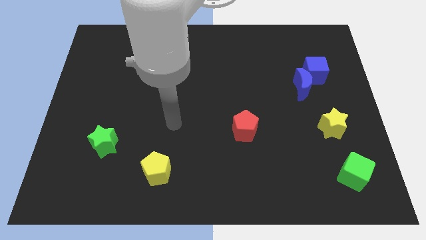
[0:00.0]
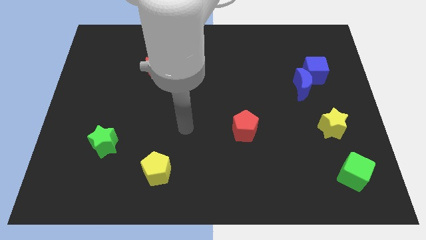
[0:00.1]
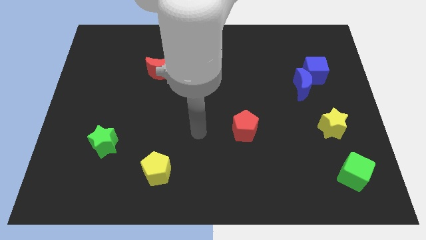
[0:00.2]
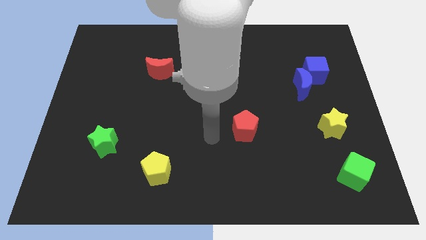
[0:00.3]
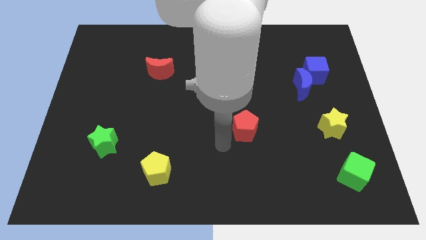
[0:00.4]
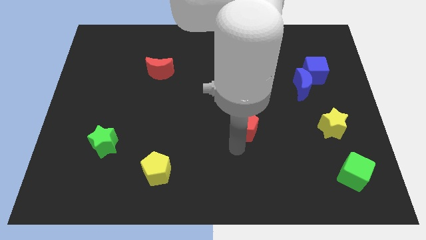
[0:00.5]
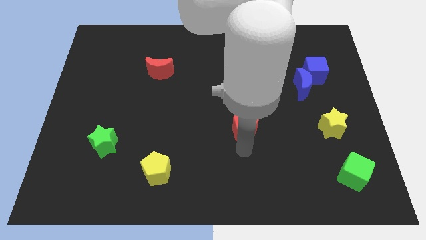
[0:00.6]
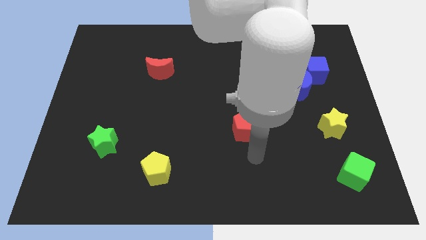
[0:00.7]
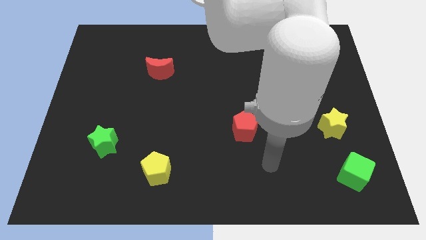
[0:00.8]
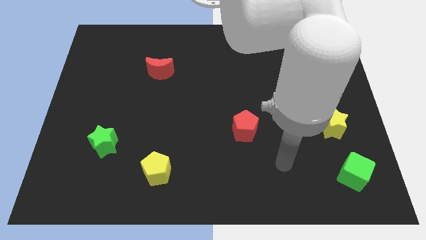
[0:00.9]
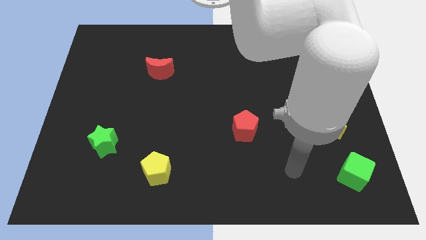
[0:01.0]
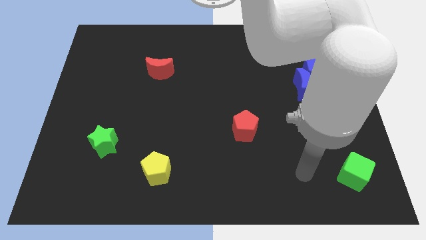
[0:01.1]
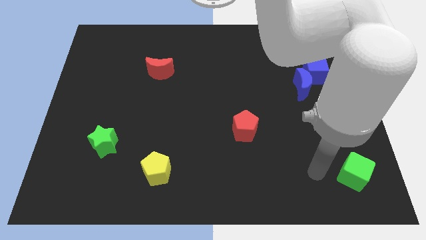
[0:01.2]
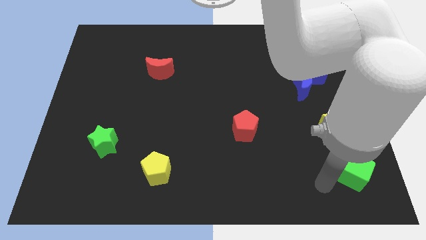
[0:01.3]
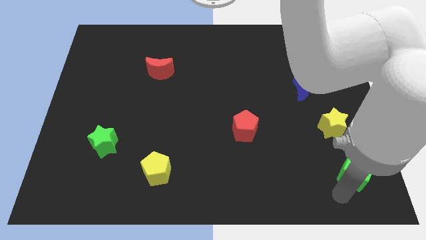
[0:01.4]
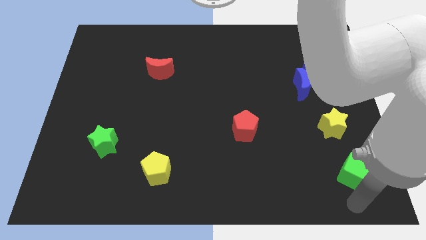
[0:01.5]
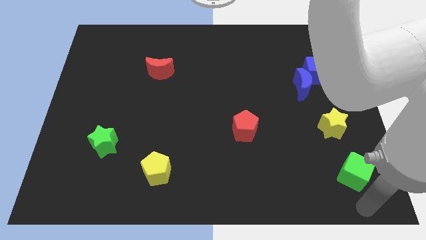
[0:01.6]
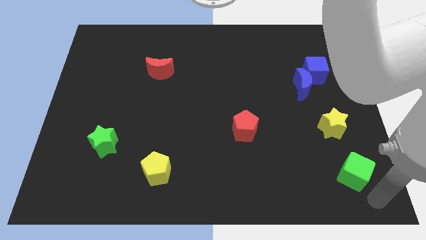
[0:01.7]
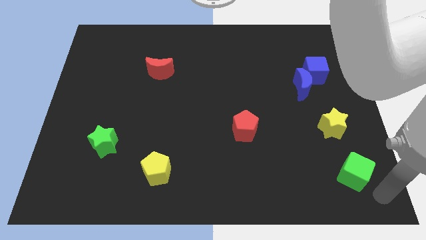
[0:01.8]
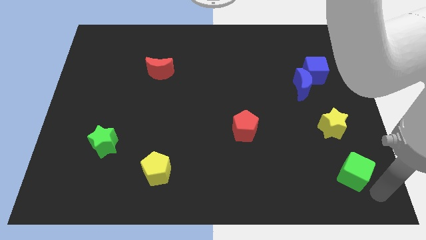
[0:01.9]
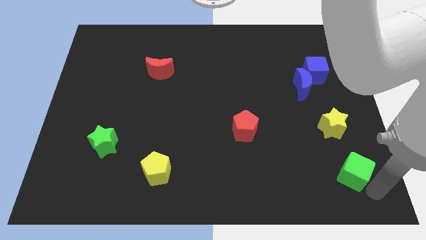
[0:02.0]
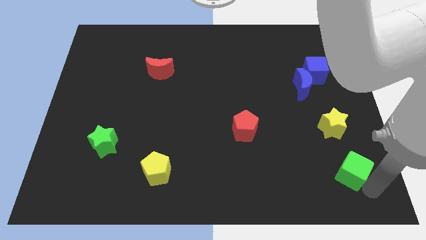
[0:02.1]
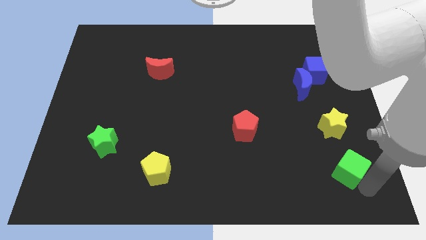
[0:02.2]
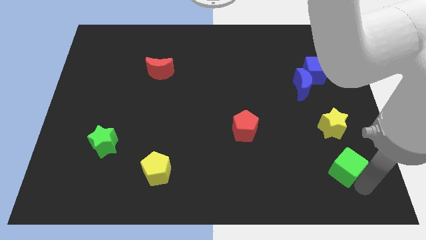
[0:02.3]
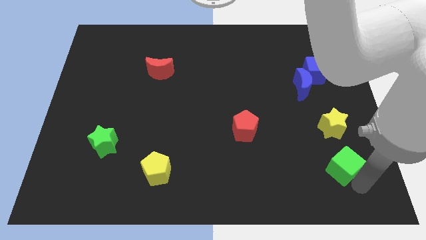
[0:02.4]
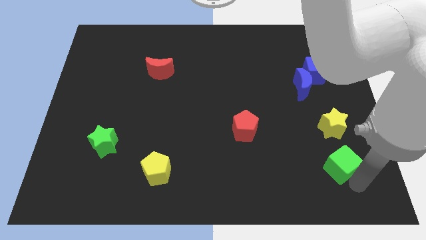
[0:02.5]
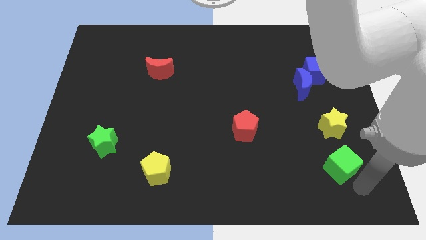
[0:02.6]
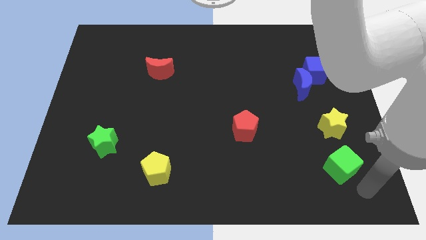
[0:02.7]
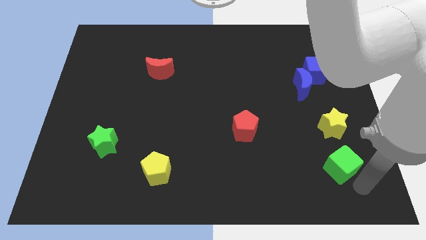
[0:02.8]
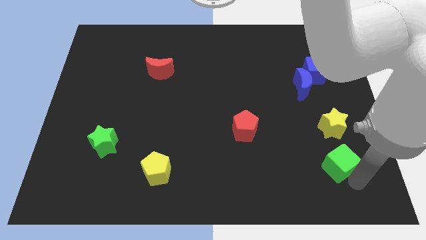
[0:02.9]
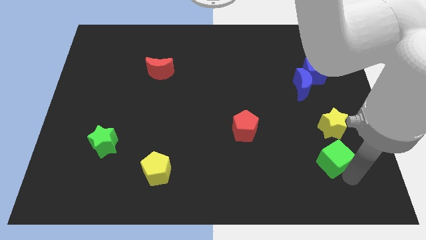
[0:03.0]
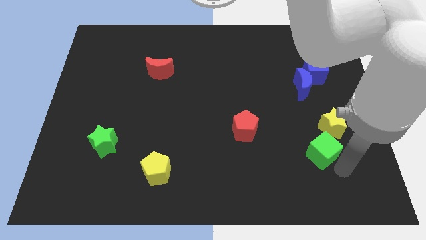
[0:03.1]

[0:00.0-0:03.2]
slide the green cube upwards and to the left a little bit

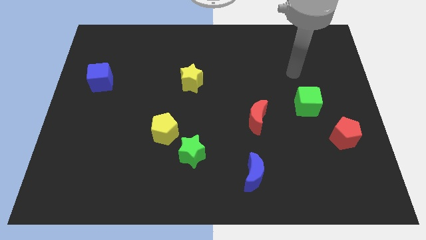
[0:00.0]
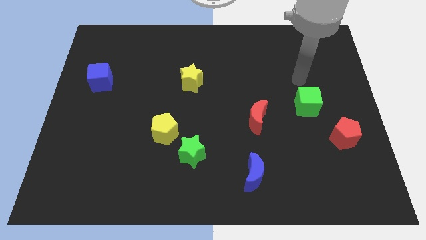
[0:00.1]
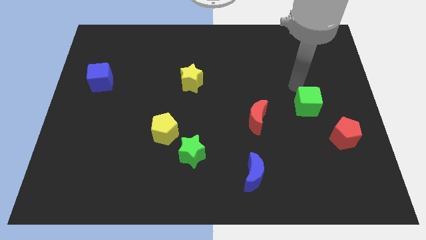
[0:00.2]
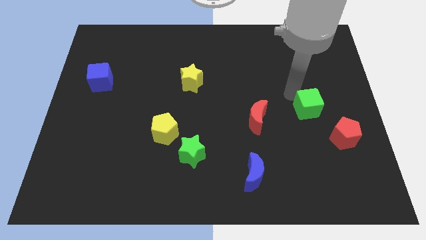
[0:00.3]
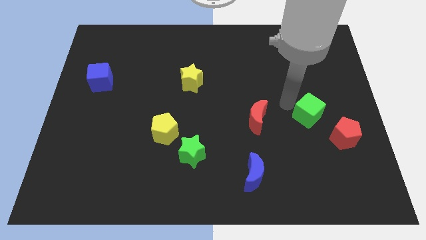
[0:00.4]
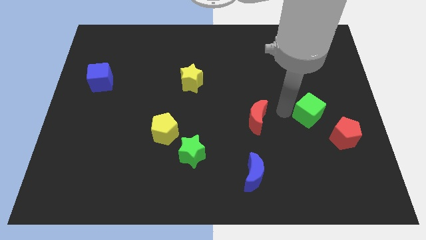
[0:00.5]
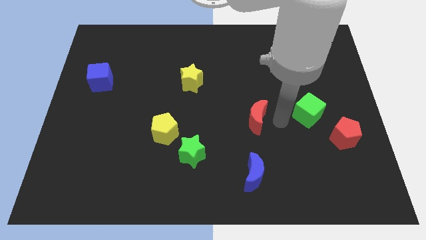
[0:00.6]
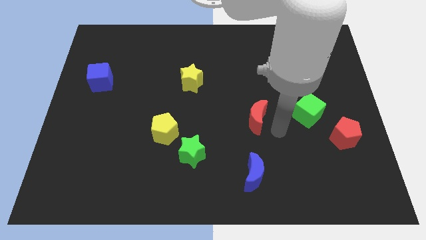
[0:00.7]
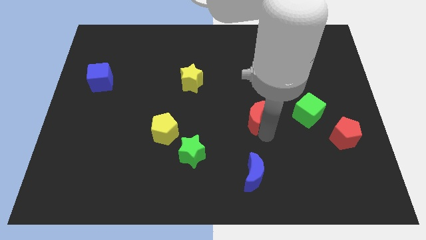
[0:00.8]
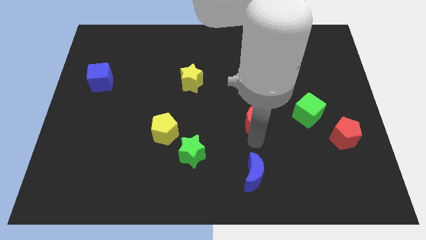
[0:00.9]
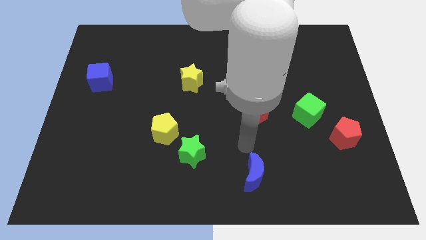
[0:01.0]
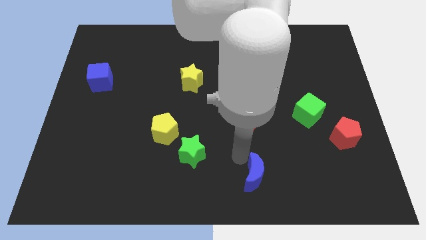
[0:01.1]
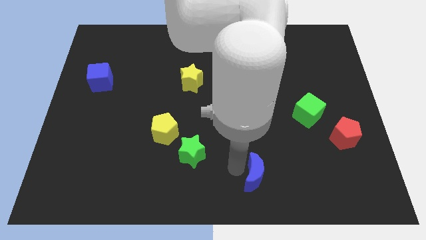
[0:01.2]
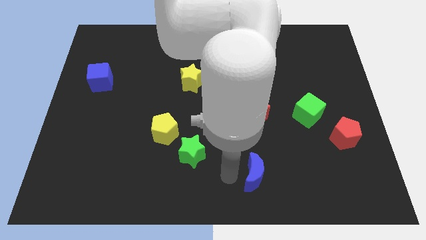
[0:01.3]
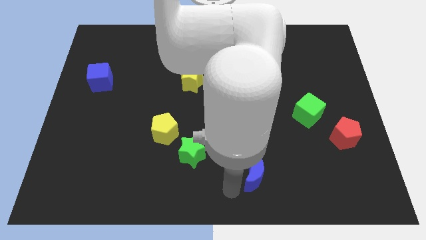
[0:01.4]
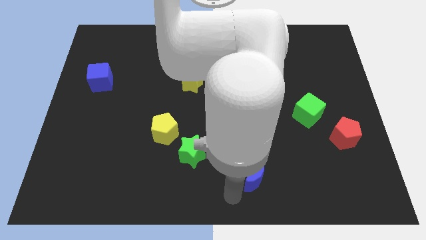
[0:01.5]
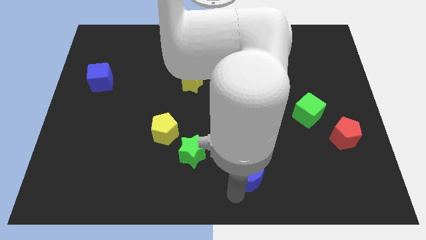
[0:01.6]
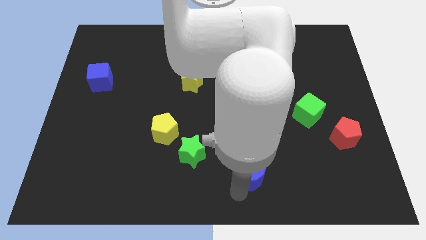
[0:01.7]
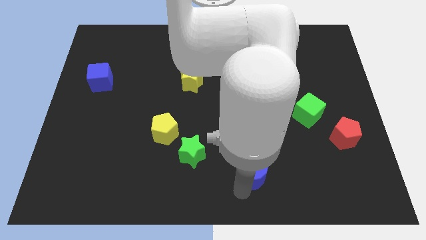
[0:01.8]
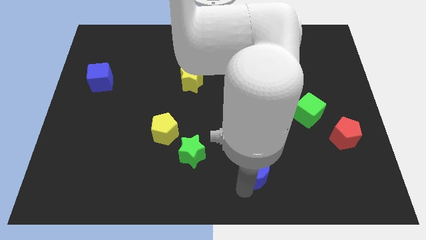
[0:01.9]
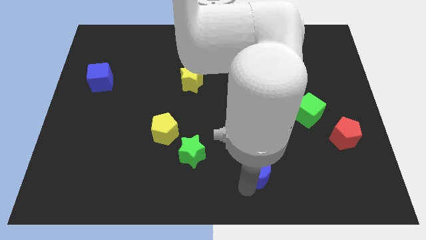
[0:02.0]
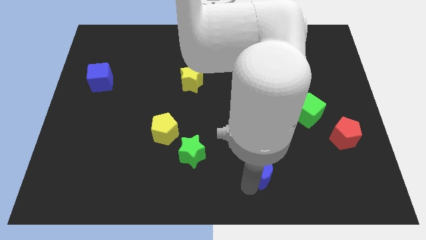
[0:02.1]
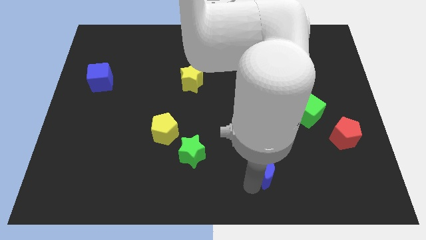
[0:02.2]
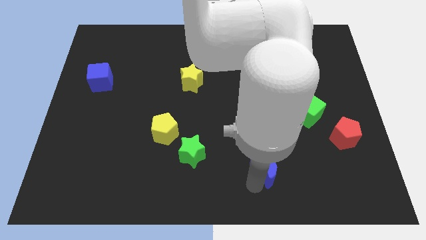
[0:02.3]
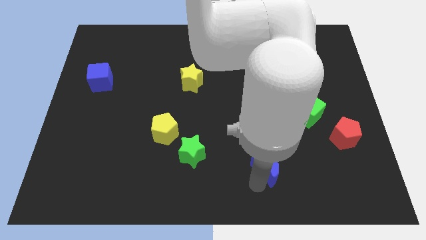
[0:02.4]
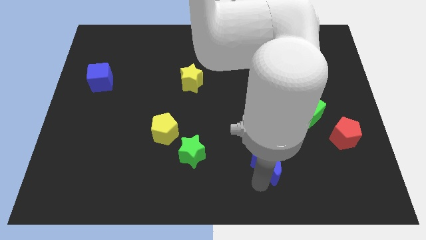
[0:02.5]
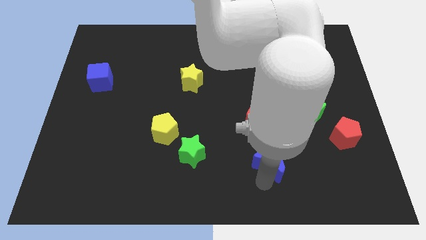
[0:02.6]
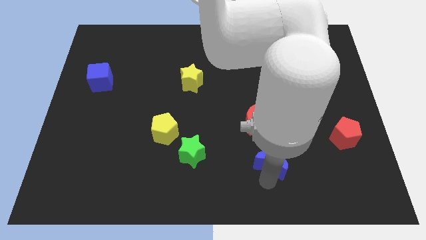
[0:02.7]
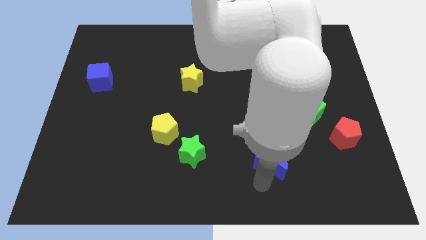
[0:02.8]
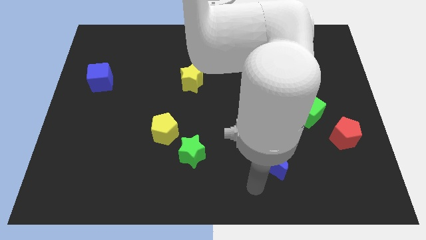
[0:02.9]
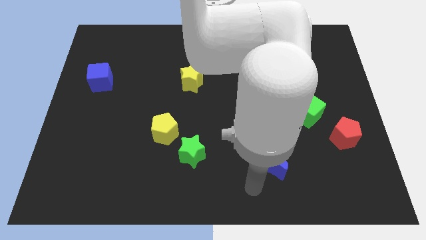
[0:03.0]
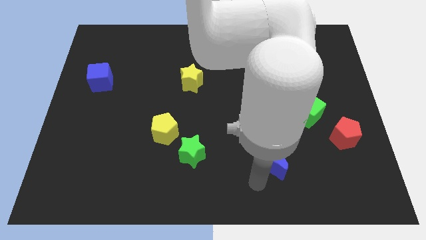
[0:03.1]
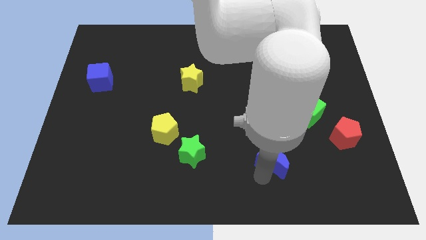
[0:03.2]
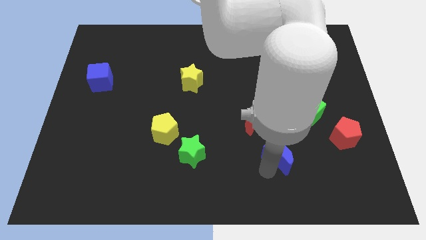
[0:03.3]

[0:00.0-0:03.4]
slightly slide the blue moon up and right

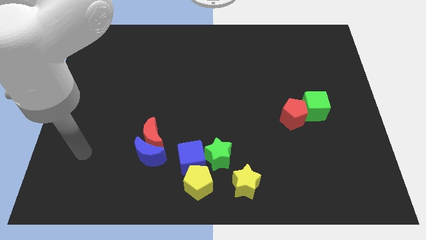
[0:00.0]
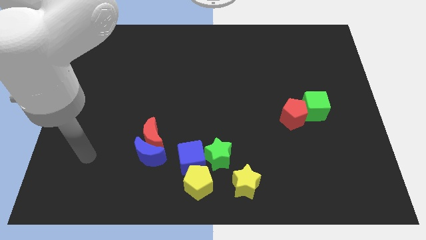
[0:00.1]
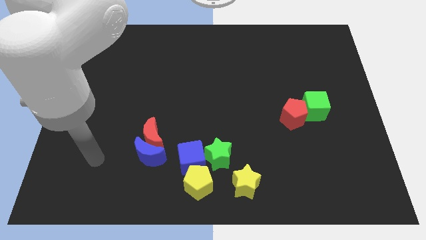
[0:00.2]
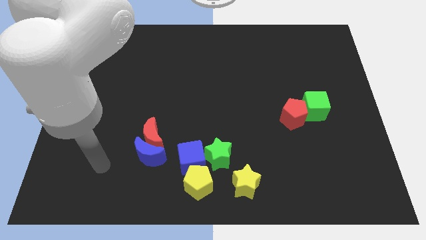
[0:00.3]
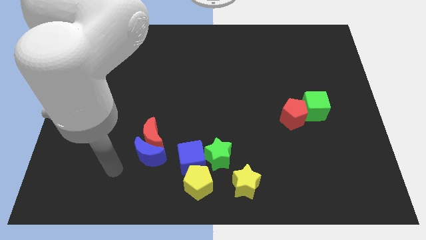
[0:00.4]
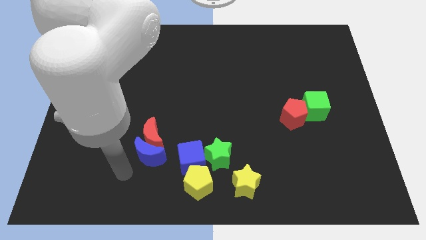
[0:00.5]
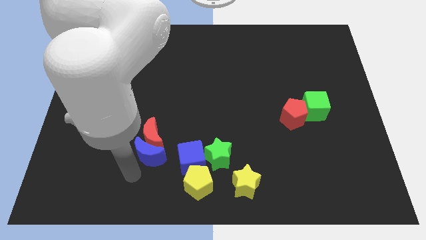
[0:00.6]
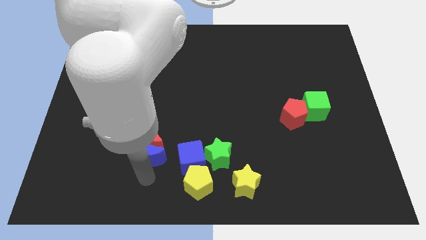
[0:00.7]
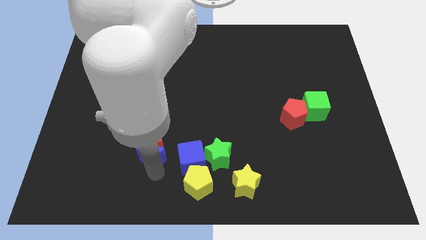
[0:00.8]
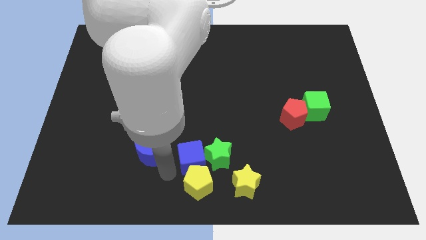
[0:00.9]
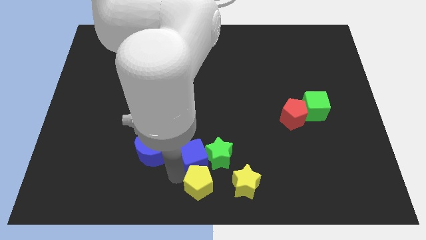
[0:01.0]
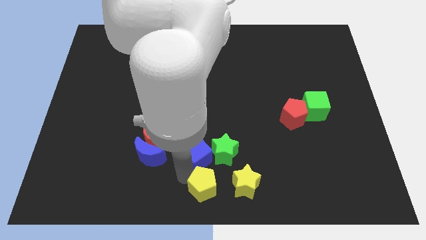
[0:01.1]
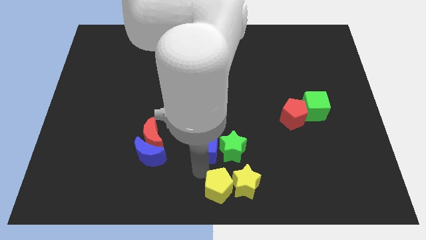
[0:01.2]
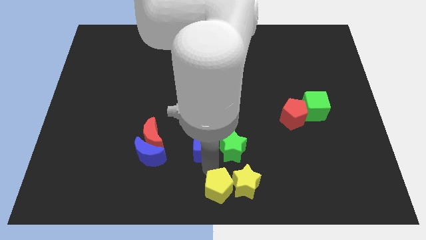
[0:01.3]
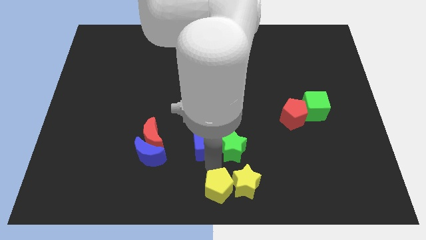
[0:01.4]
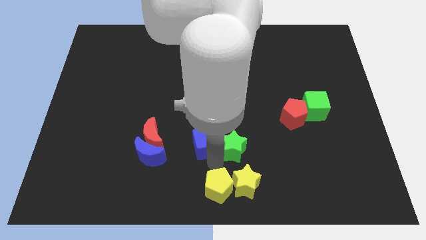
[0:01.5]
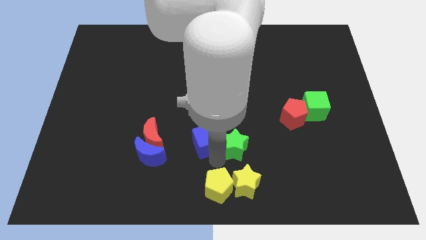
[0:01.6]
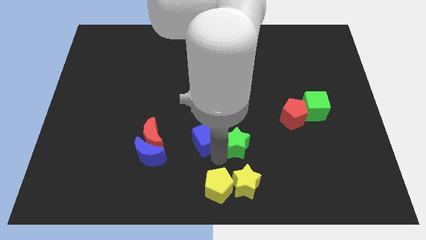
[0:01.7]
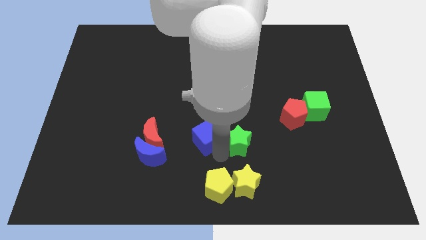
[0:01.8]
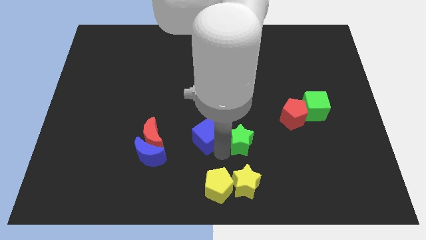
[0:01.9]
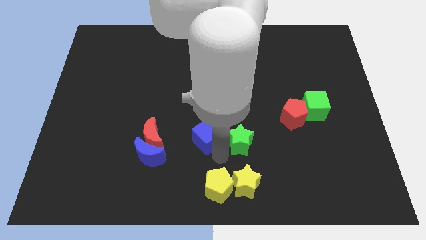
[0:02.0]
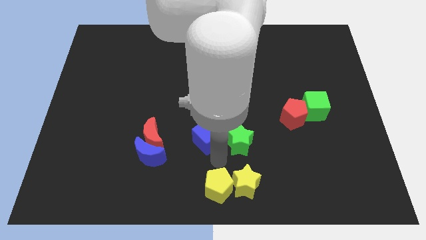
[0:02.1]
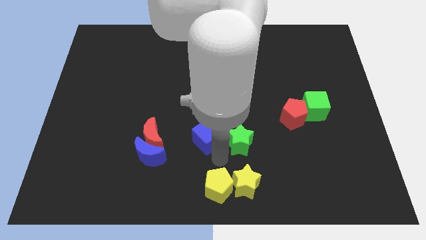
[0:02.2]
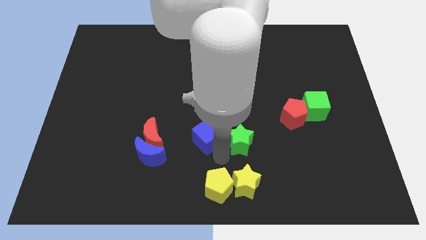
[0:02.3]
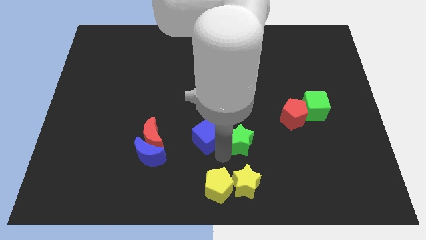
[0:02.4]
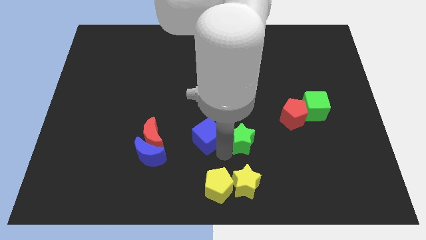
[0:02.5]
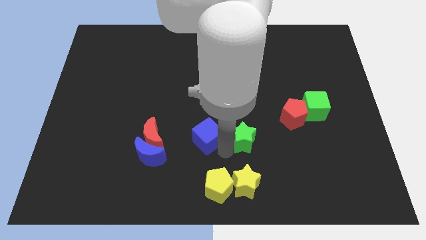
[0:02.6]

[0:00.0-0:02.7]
slightly slide the green star diagonally upwards and to the right
